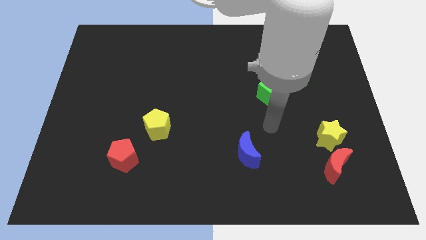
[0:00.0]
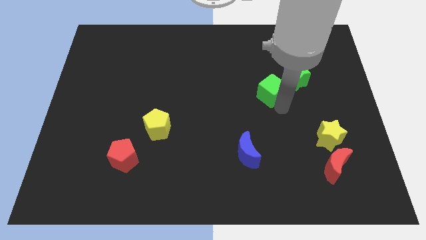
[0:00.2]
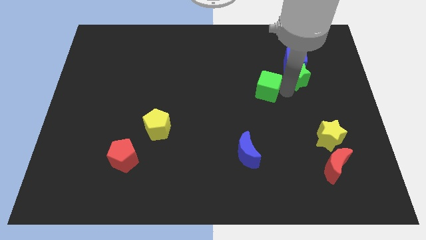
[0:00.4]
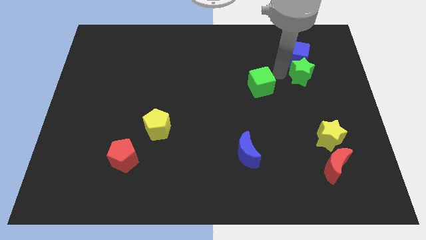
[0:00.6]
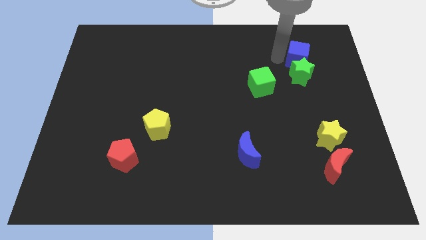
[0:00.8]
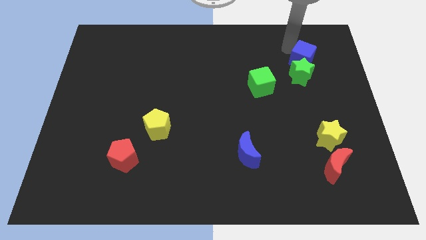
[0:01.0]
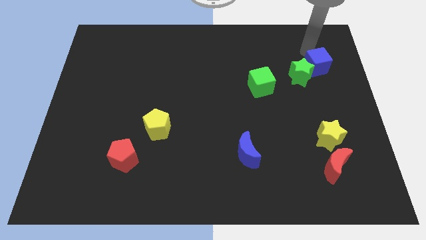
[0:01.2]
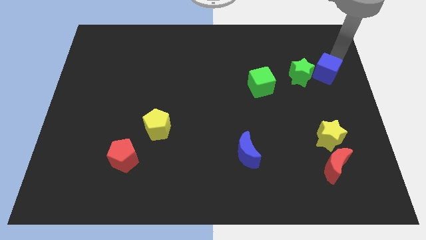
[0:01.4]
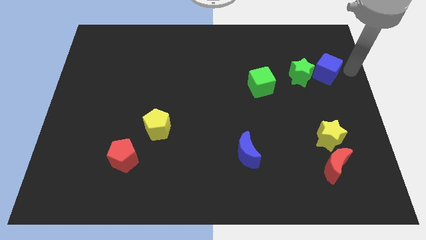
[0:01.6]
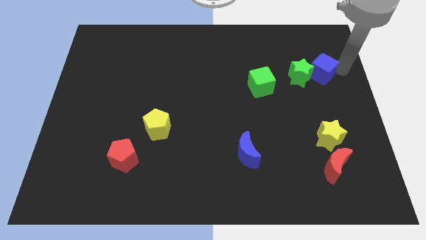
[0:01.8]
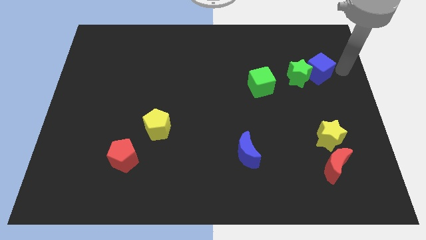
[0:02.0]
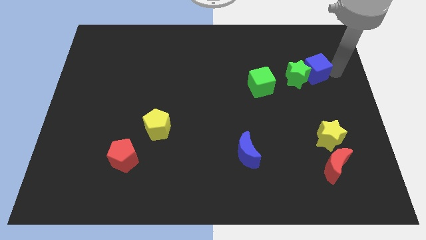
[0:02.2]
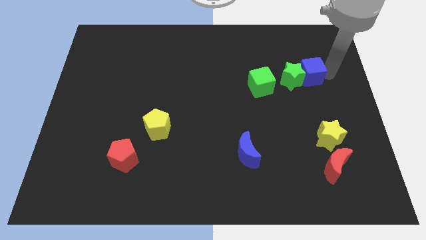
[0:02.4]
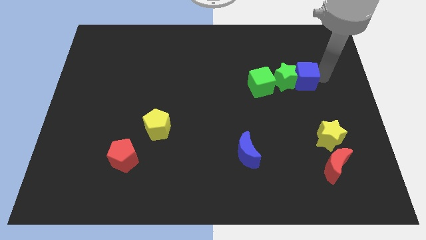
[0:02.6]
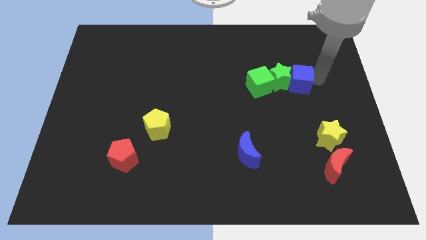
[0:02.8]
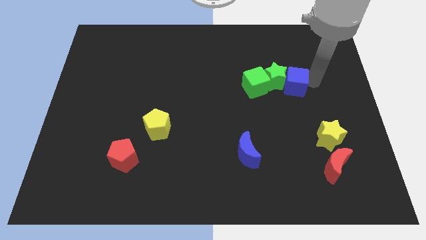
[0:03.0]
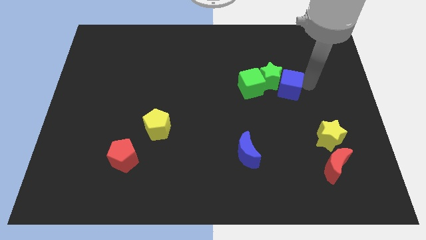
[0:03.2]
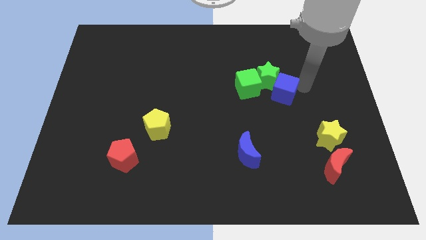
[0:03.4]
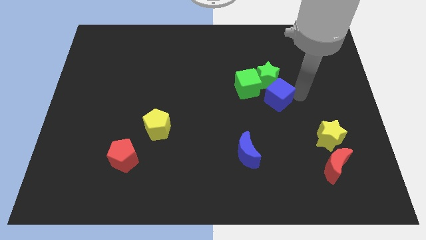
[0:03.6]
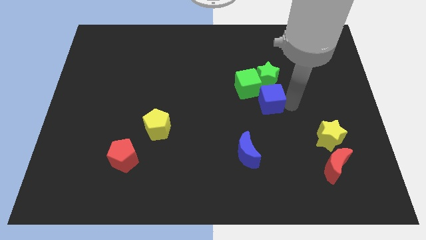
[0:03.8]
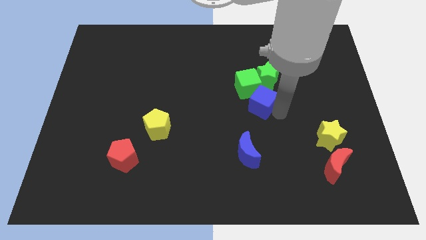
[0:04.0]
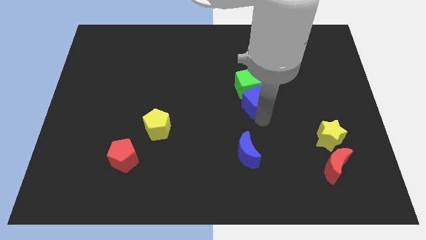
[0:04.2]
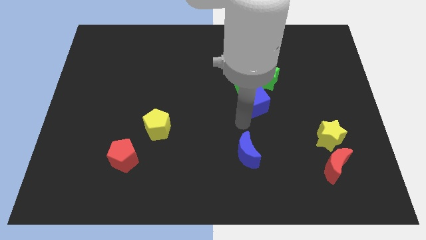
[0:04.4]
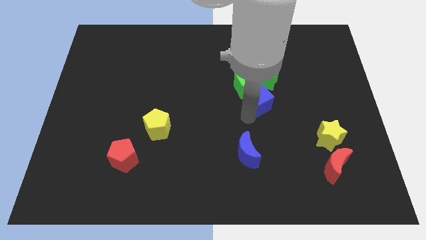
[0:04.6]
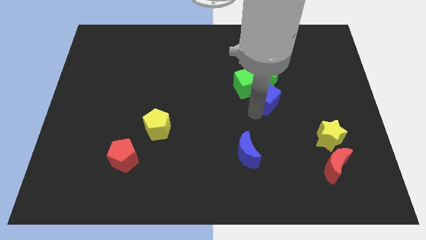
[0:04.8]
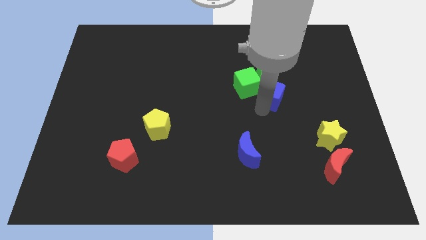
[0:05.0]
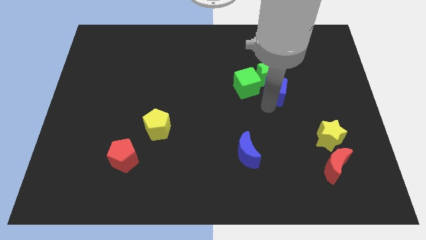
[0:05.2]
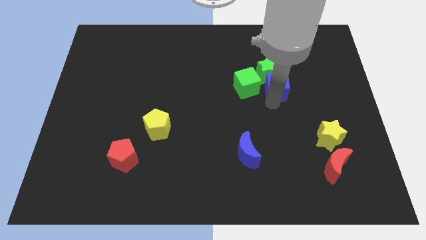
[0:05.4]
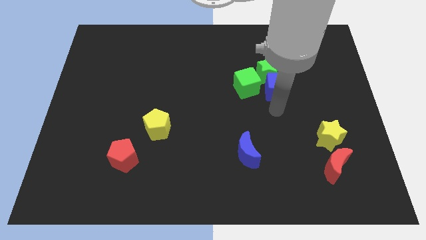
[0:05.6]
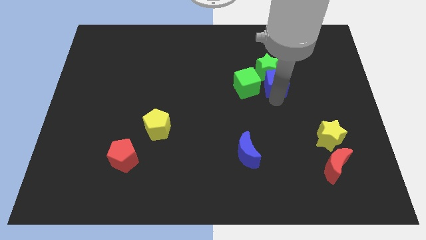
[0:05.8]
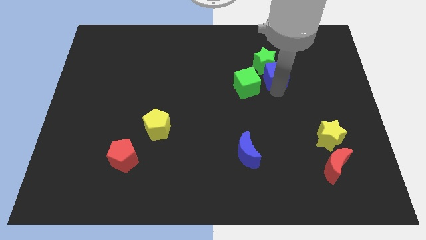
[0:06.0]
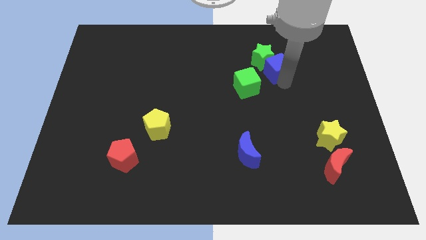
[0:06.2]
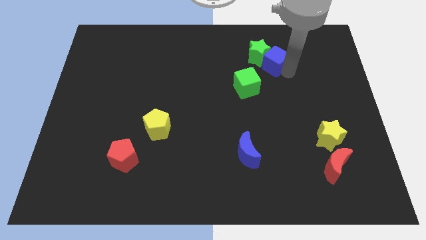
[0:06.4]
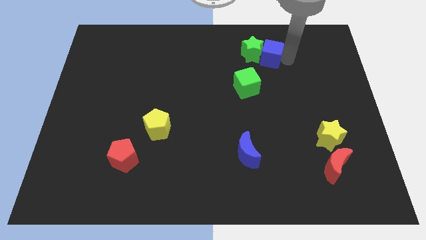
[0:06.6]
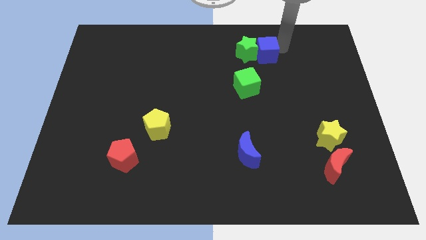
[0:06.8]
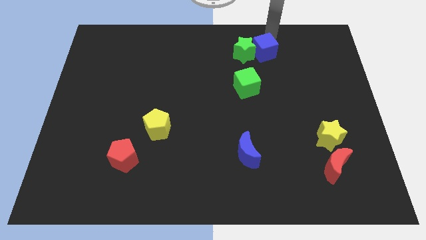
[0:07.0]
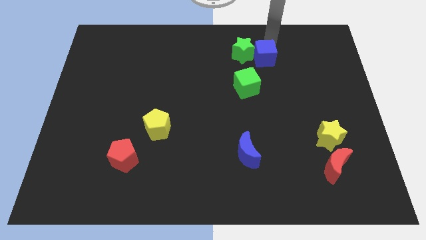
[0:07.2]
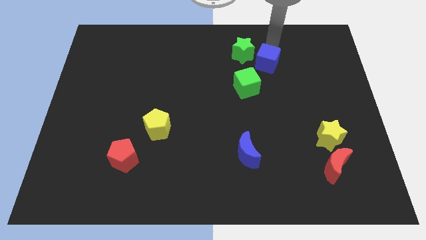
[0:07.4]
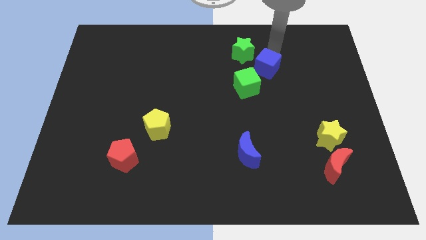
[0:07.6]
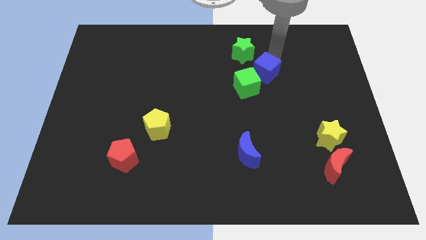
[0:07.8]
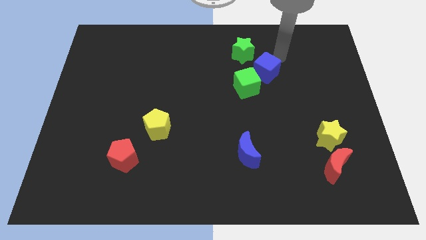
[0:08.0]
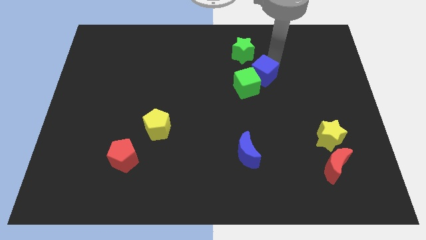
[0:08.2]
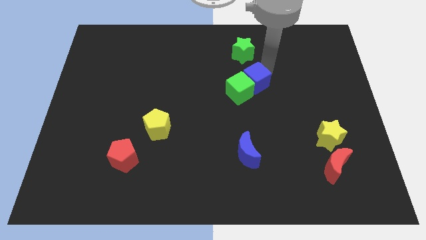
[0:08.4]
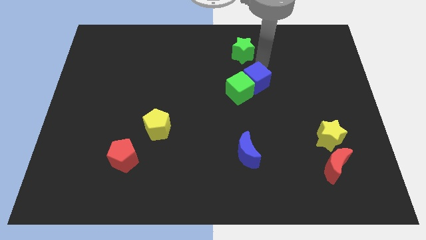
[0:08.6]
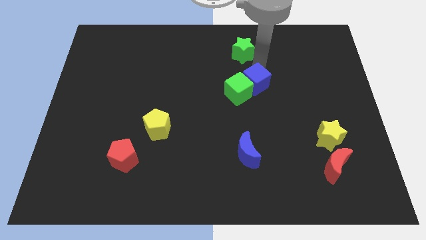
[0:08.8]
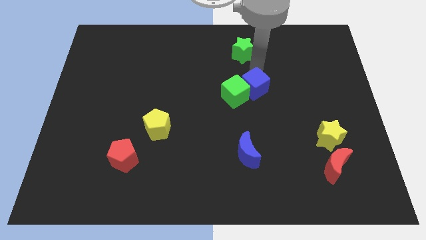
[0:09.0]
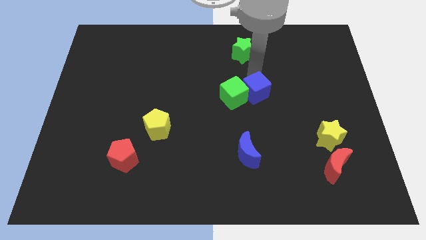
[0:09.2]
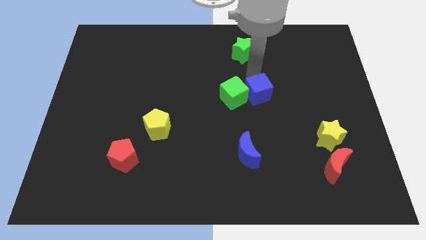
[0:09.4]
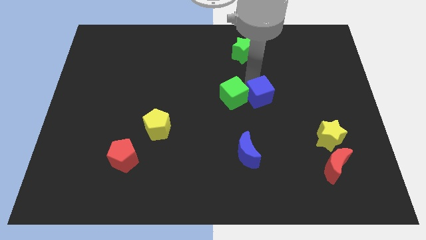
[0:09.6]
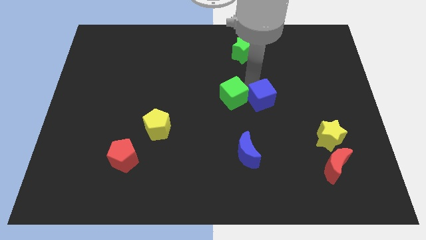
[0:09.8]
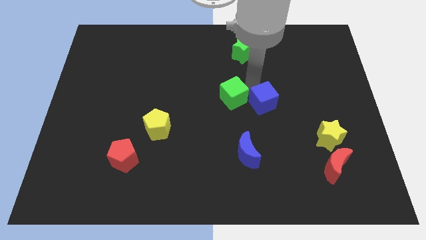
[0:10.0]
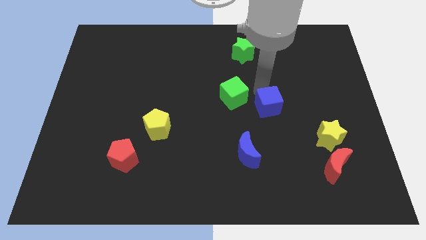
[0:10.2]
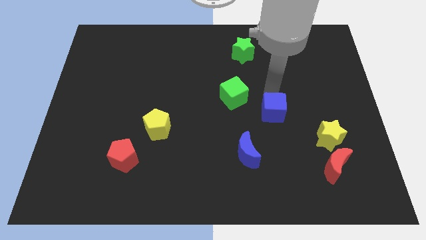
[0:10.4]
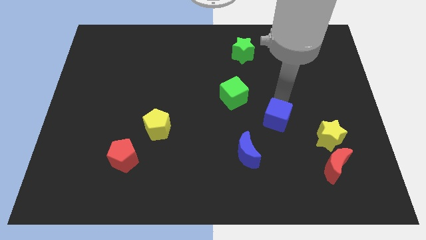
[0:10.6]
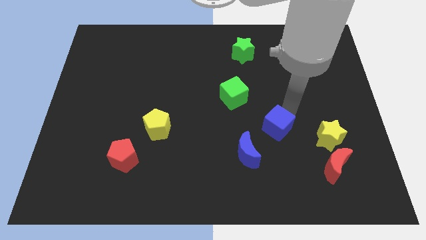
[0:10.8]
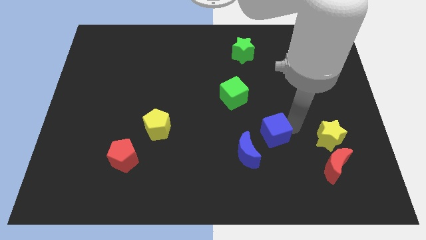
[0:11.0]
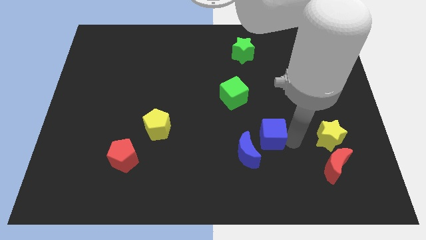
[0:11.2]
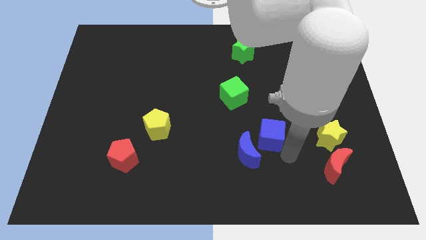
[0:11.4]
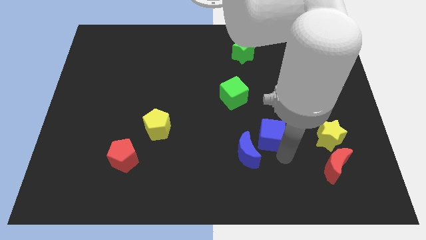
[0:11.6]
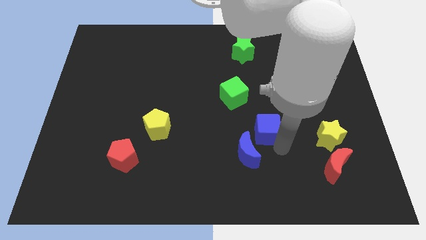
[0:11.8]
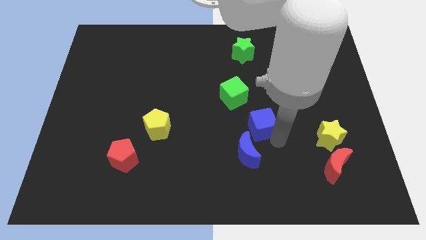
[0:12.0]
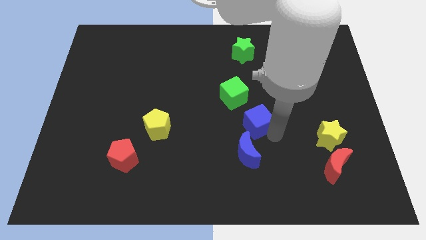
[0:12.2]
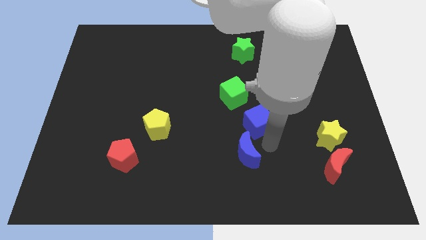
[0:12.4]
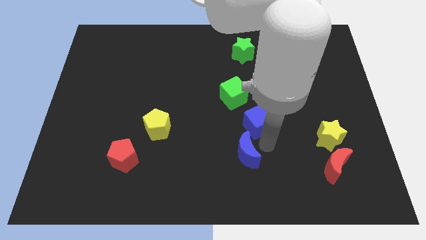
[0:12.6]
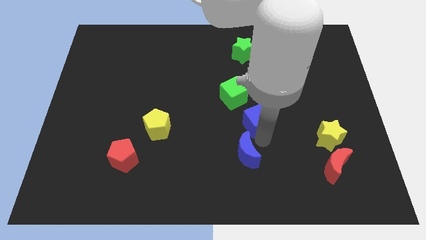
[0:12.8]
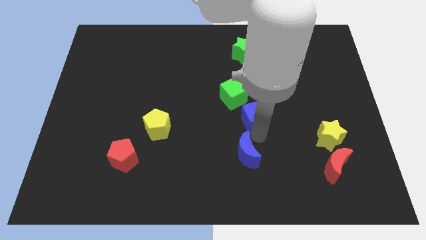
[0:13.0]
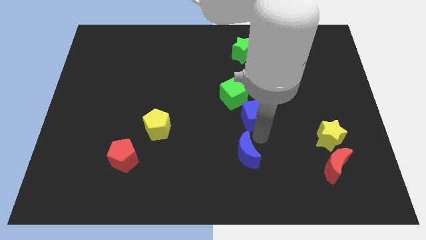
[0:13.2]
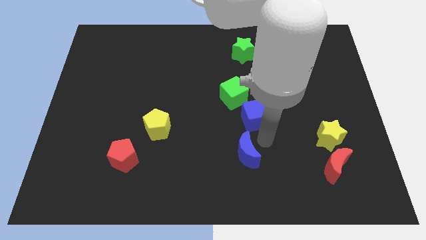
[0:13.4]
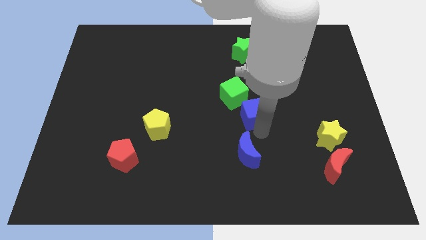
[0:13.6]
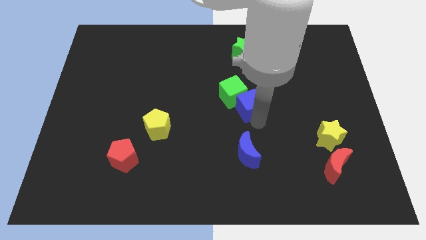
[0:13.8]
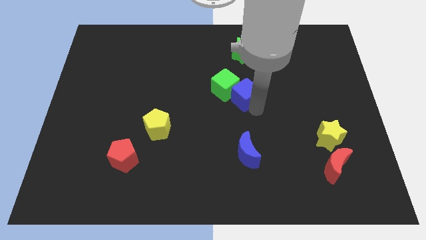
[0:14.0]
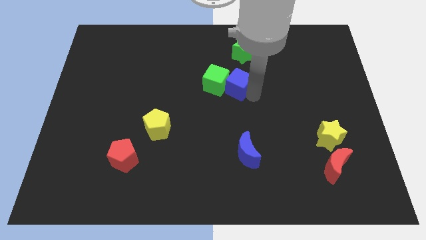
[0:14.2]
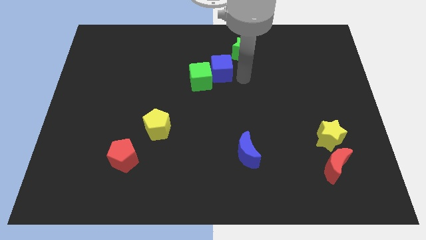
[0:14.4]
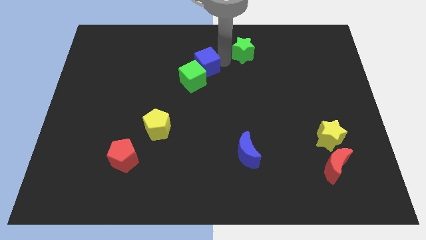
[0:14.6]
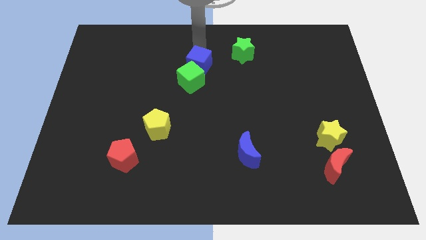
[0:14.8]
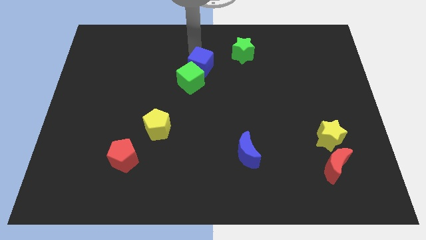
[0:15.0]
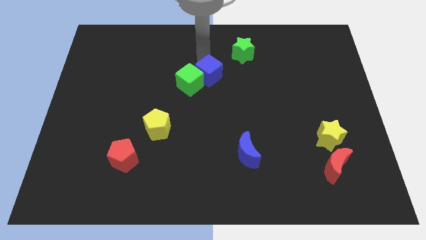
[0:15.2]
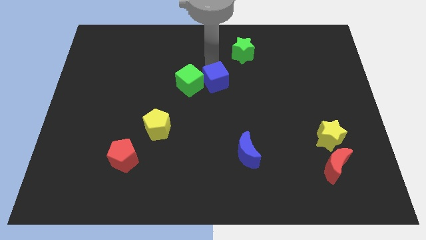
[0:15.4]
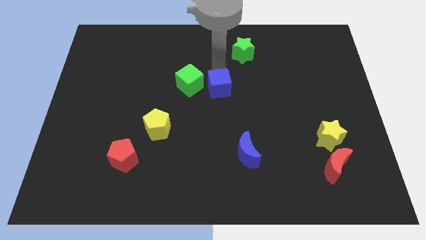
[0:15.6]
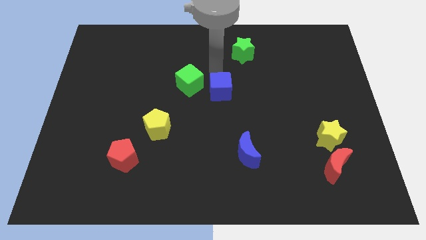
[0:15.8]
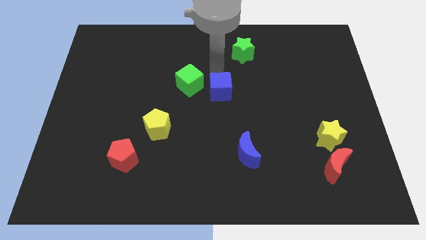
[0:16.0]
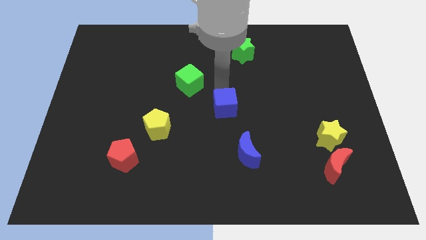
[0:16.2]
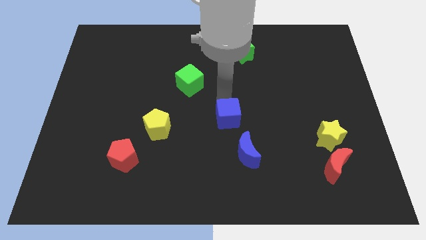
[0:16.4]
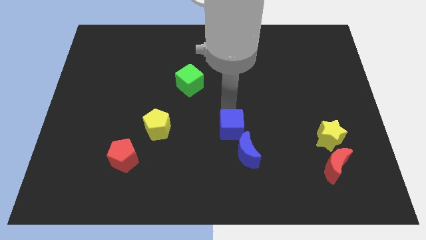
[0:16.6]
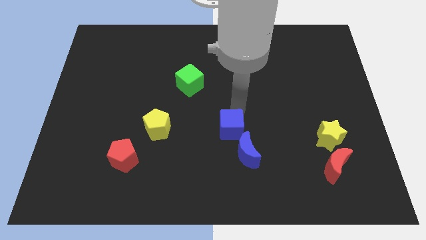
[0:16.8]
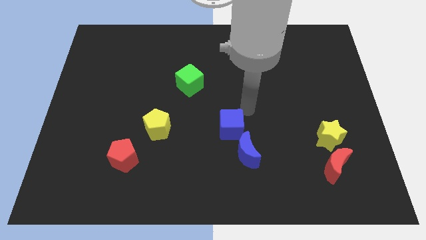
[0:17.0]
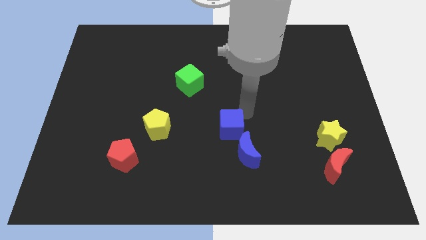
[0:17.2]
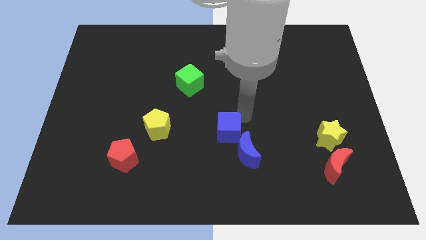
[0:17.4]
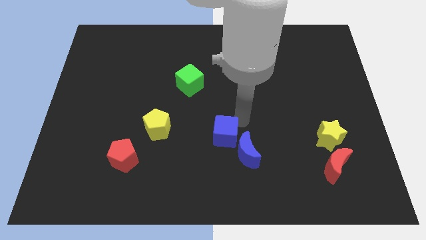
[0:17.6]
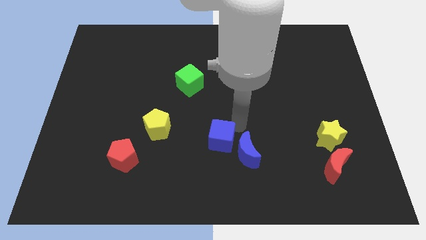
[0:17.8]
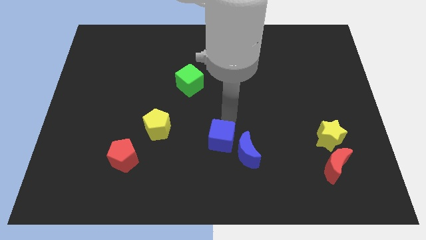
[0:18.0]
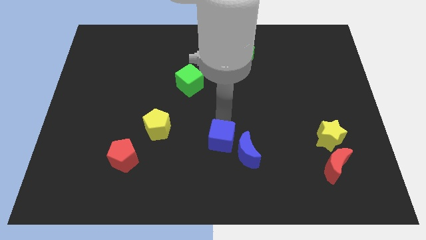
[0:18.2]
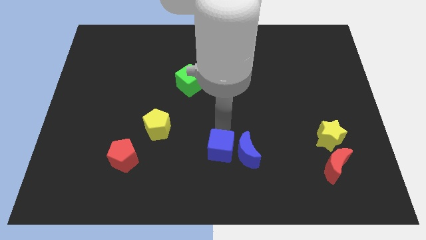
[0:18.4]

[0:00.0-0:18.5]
put the blue cube to the bottom left of the blue moon
